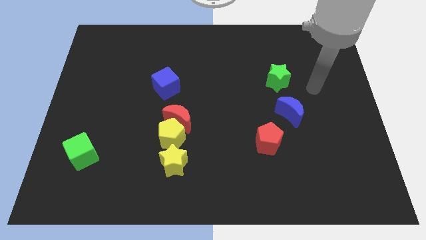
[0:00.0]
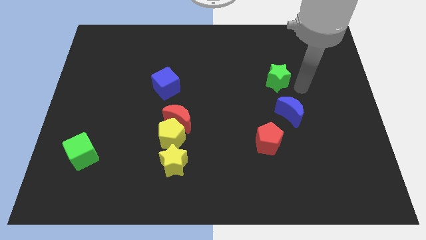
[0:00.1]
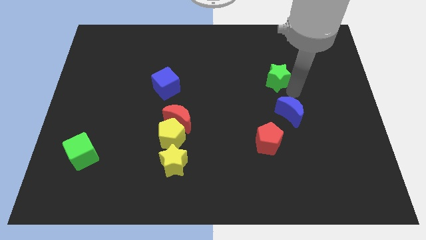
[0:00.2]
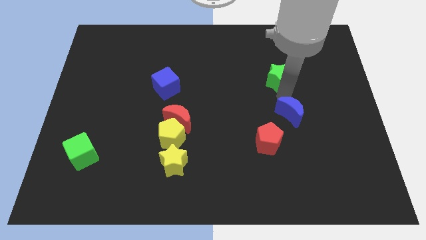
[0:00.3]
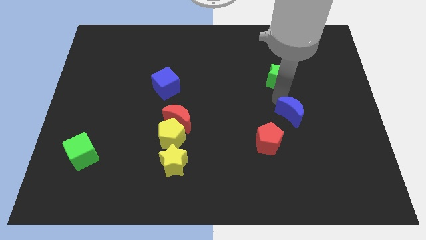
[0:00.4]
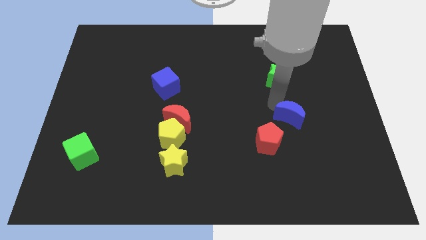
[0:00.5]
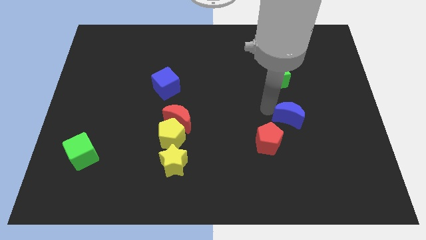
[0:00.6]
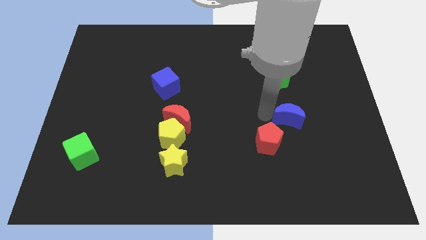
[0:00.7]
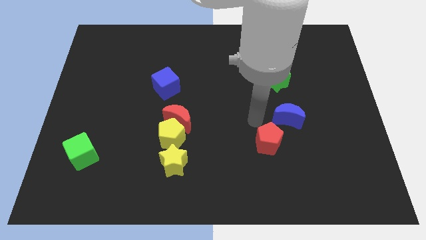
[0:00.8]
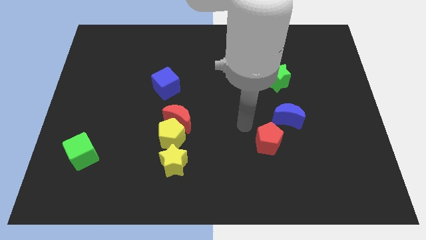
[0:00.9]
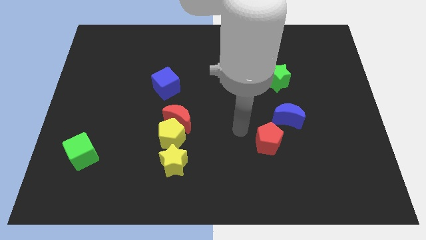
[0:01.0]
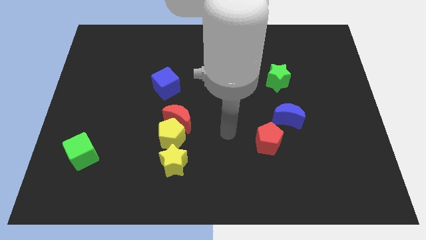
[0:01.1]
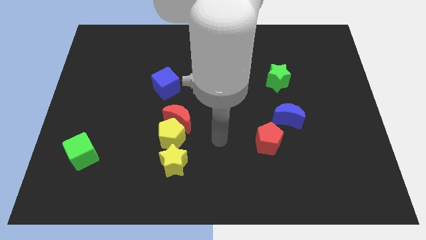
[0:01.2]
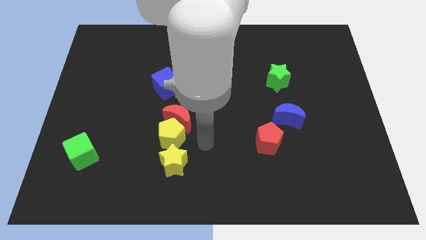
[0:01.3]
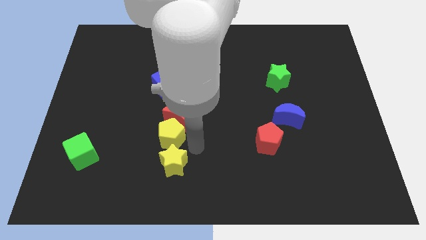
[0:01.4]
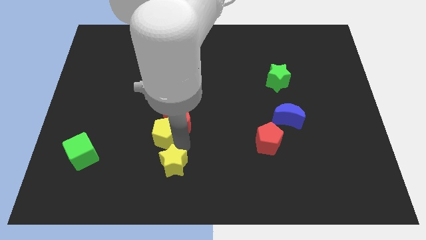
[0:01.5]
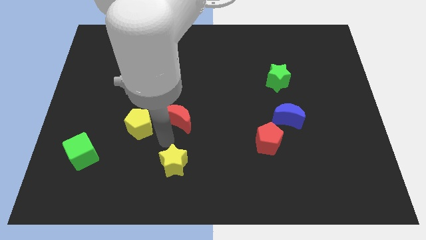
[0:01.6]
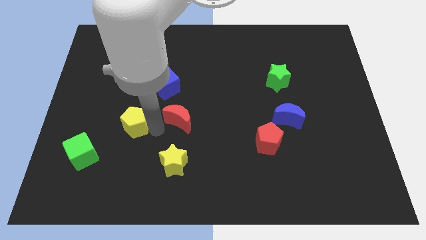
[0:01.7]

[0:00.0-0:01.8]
move the red moon away from the yellow pentagon

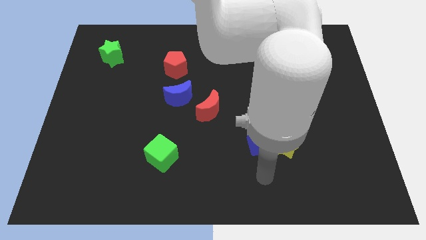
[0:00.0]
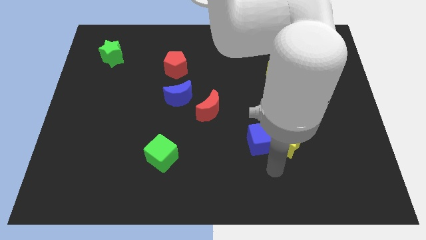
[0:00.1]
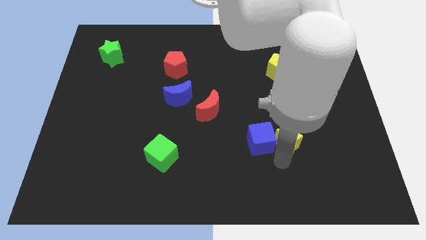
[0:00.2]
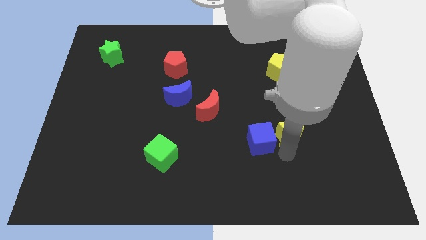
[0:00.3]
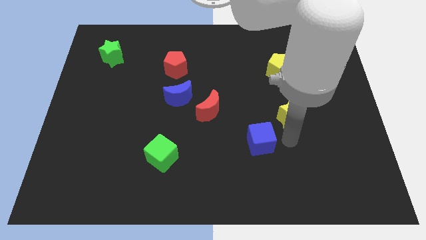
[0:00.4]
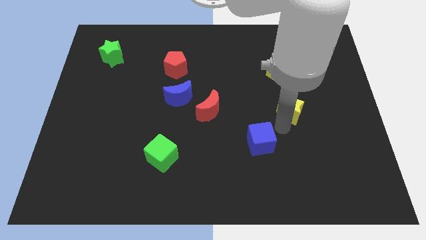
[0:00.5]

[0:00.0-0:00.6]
separate the blue cube from the yellow star

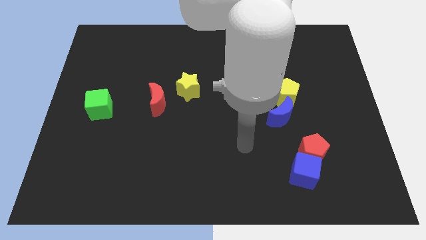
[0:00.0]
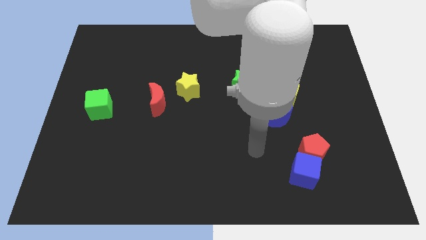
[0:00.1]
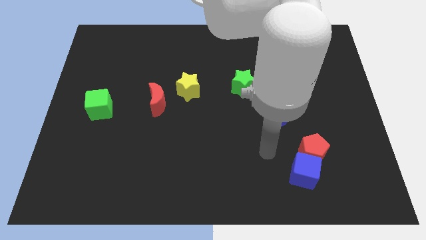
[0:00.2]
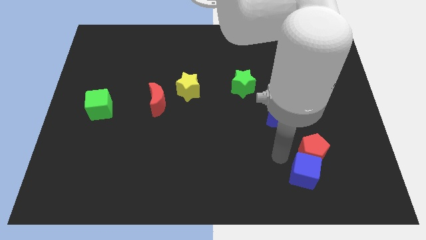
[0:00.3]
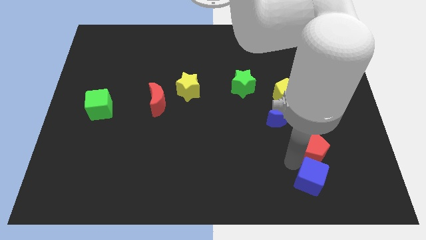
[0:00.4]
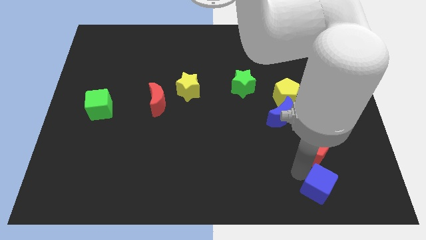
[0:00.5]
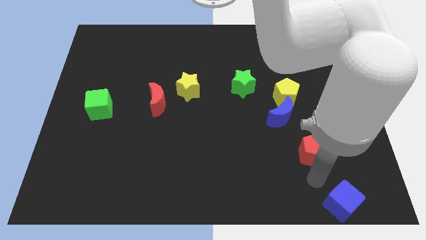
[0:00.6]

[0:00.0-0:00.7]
move the red pentagon away from the blue cube

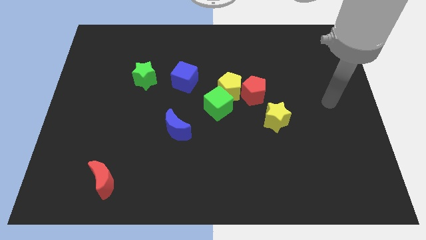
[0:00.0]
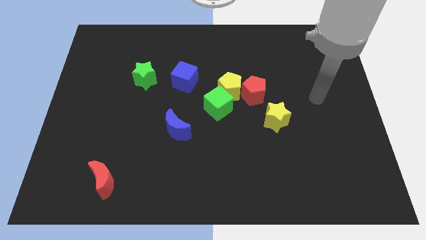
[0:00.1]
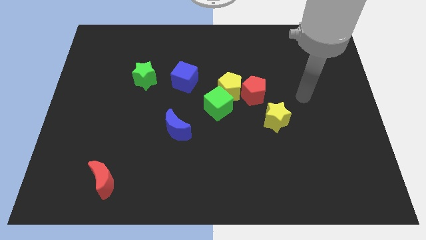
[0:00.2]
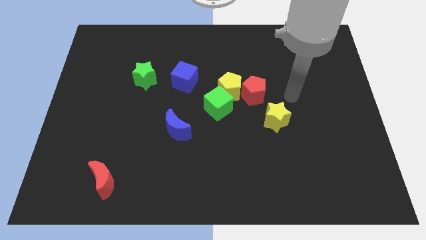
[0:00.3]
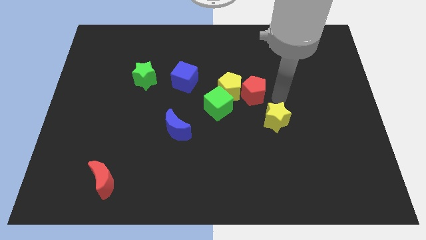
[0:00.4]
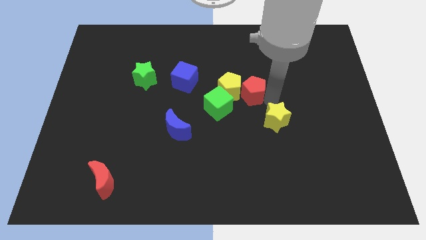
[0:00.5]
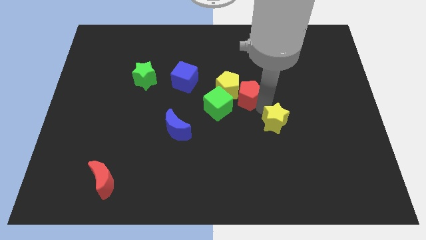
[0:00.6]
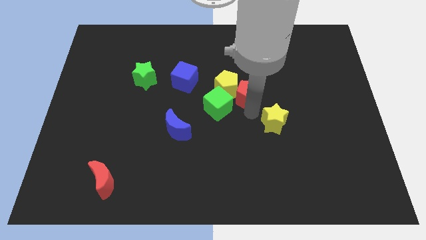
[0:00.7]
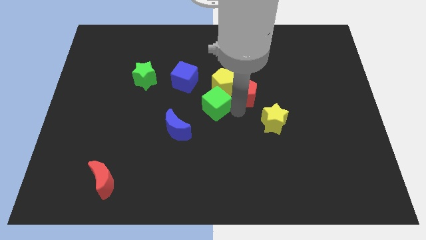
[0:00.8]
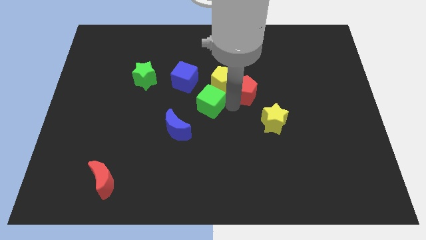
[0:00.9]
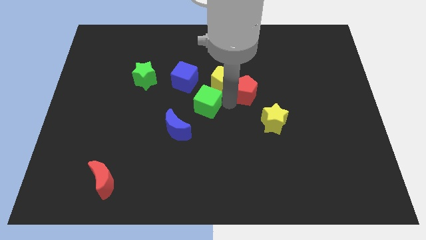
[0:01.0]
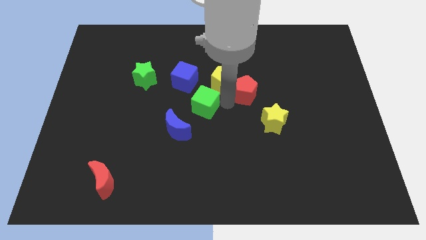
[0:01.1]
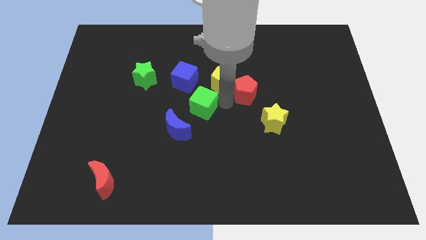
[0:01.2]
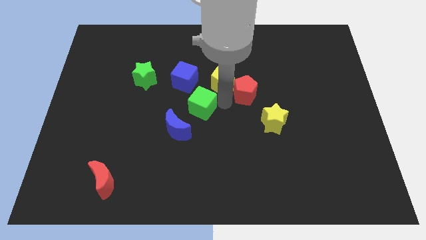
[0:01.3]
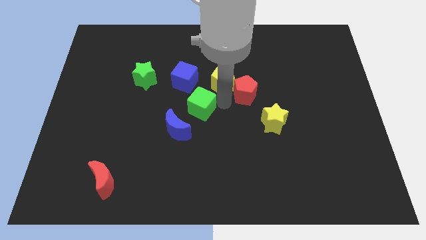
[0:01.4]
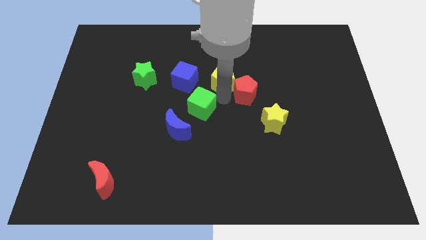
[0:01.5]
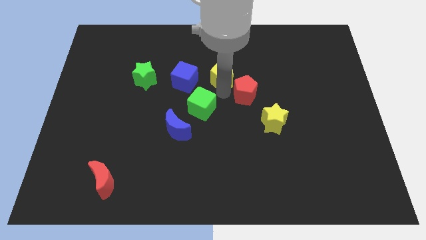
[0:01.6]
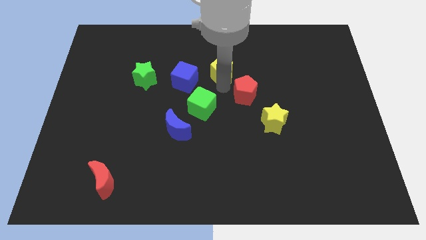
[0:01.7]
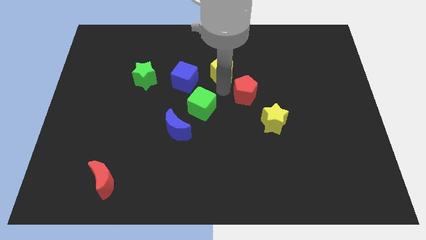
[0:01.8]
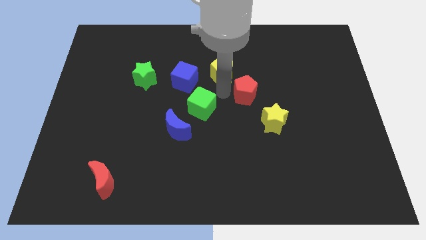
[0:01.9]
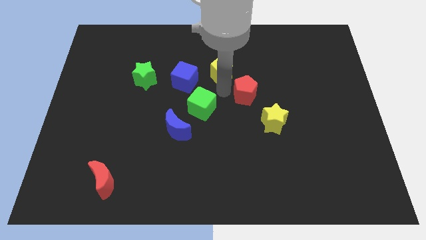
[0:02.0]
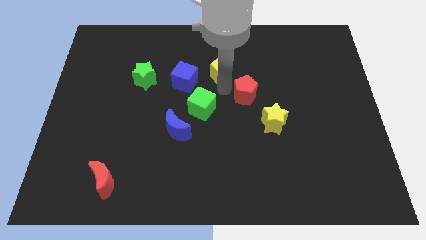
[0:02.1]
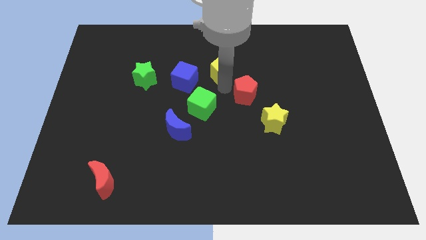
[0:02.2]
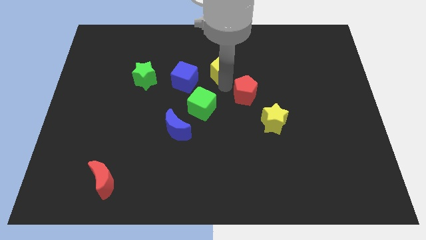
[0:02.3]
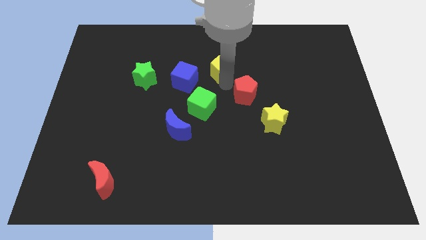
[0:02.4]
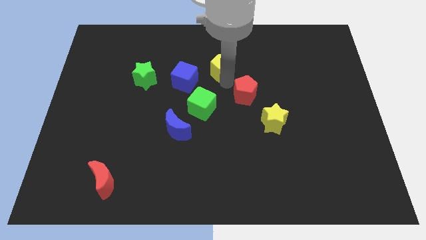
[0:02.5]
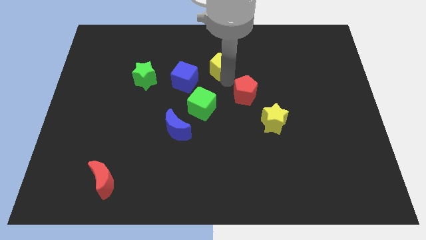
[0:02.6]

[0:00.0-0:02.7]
separate the yellow pentagon from the red pentagon and green cube

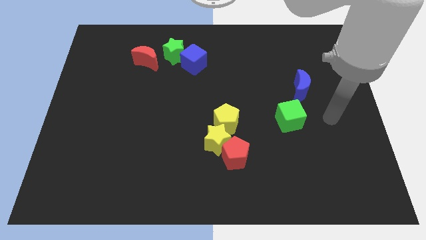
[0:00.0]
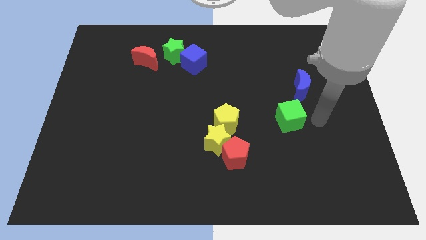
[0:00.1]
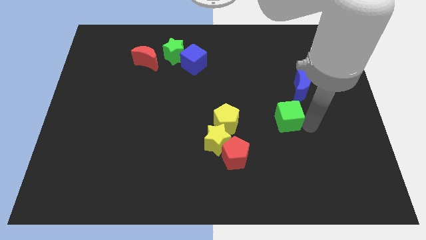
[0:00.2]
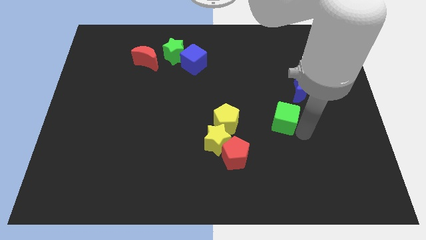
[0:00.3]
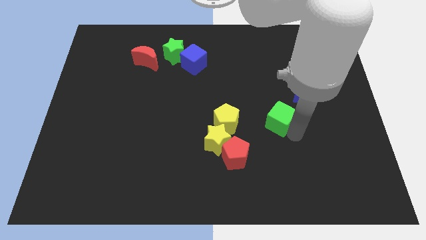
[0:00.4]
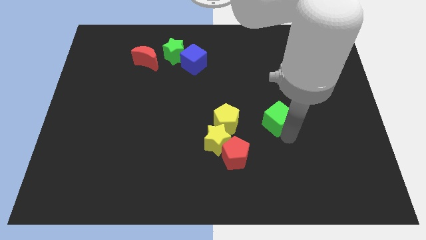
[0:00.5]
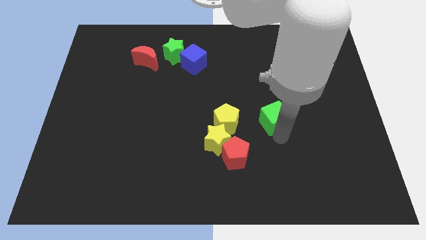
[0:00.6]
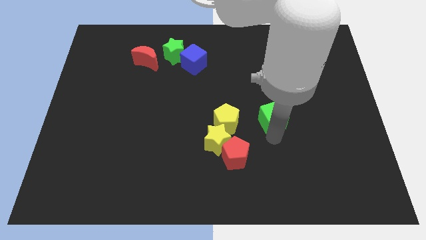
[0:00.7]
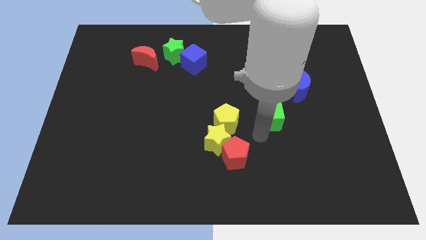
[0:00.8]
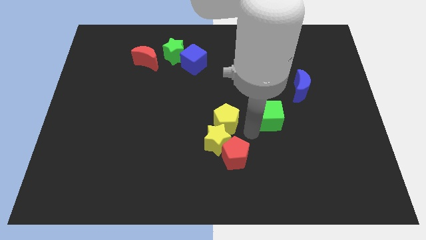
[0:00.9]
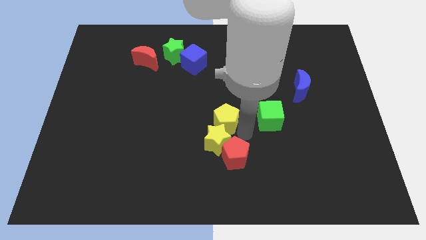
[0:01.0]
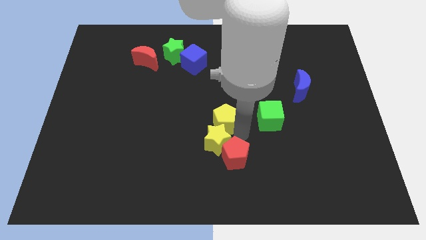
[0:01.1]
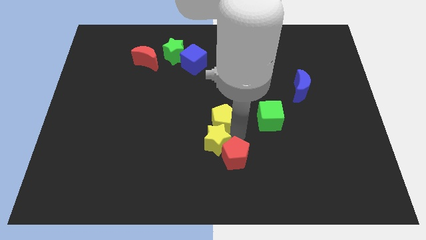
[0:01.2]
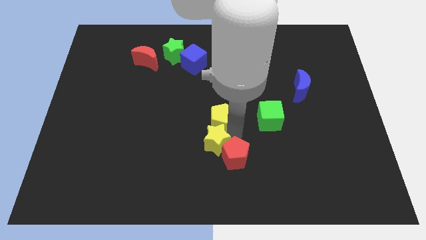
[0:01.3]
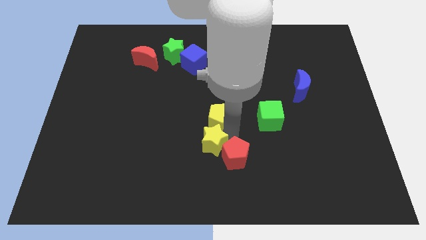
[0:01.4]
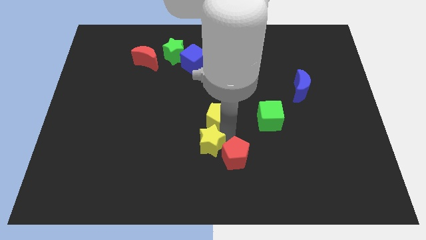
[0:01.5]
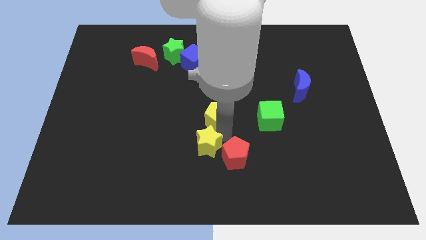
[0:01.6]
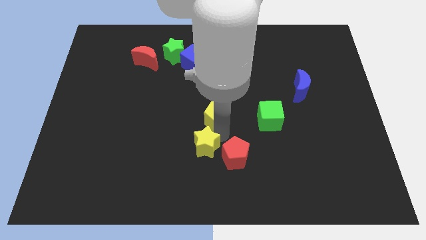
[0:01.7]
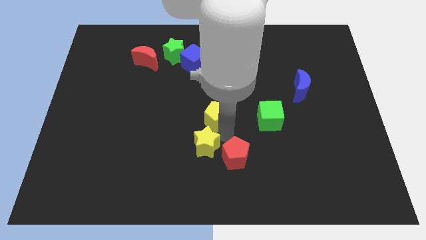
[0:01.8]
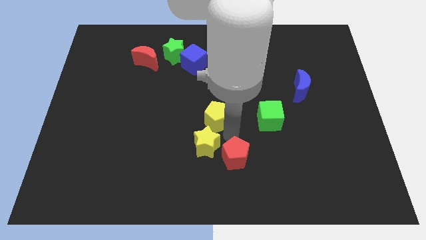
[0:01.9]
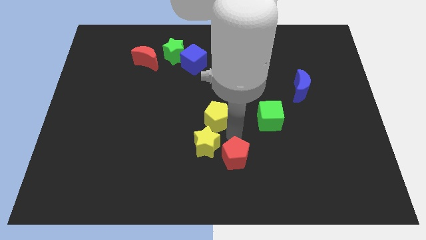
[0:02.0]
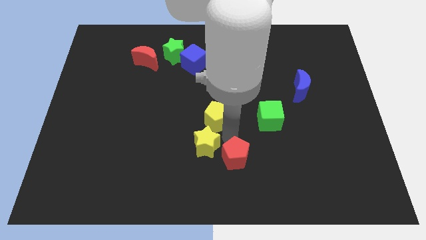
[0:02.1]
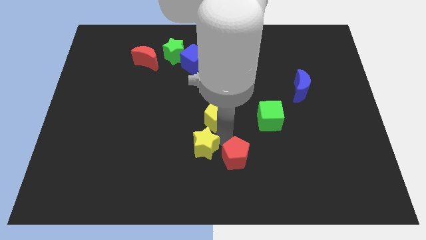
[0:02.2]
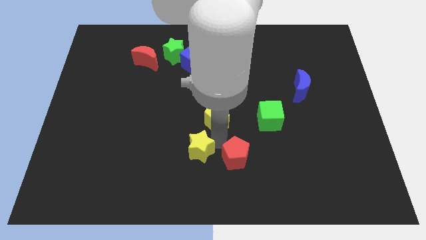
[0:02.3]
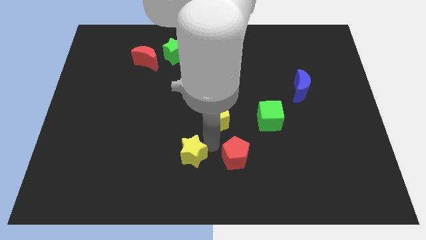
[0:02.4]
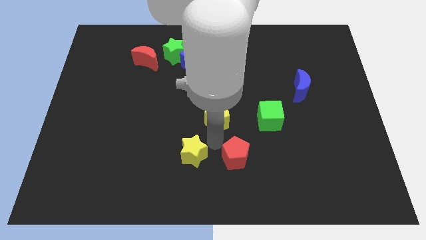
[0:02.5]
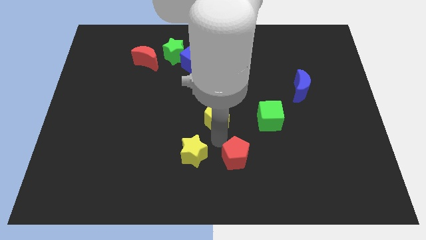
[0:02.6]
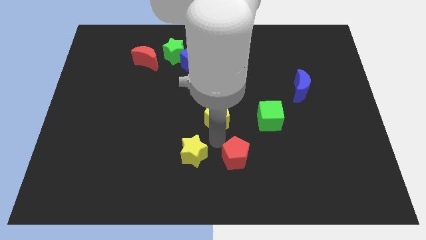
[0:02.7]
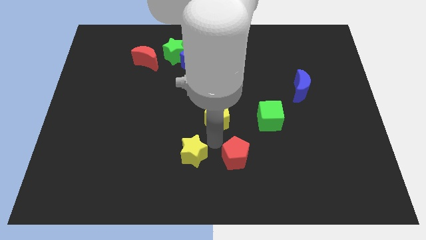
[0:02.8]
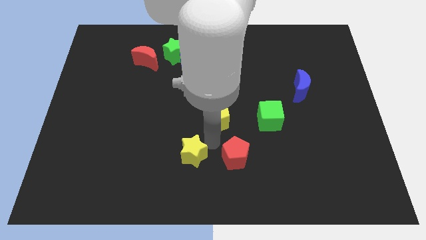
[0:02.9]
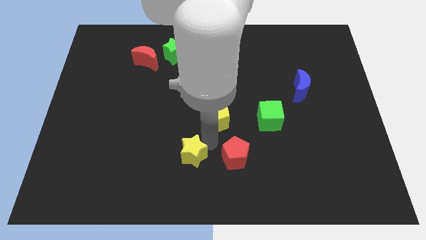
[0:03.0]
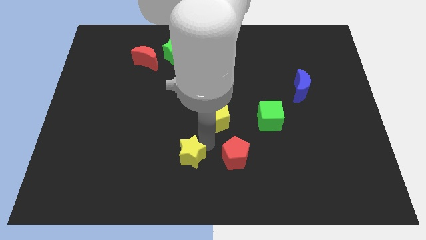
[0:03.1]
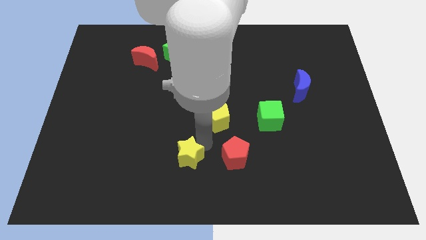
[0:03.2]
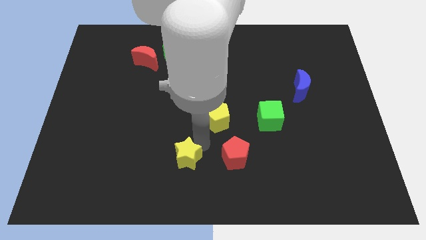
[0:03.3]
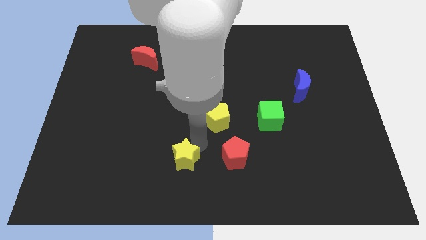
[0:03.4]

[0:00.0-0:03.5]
separate the yellow star from the red pentagon and yellow pentagon
